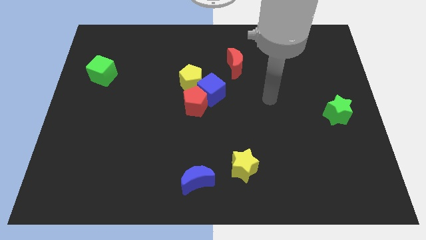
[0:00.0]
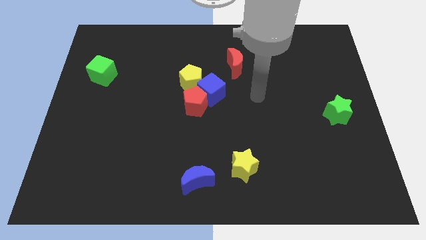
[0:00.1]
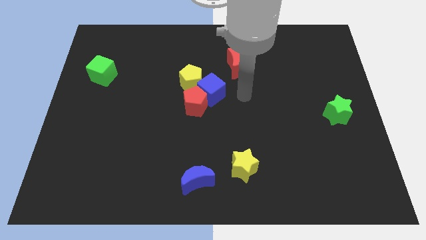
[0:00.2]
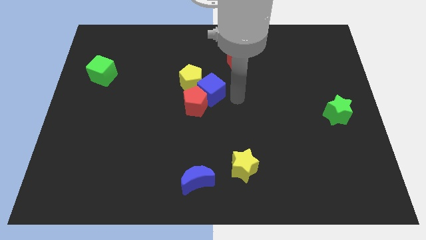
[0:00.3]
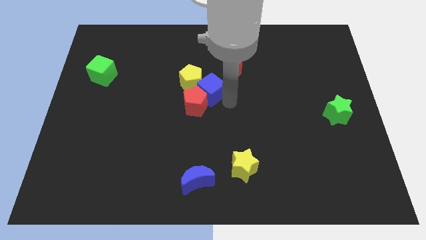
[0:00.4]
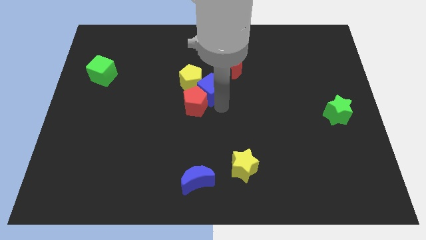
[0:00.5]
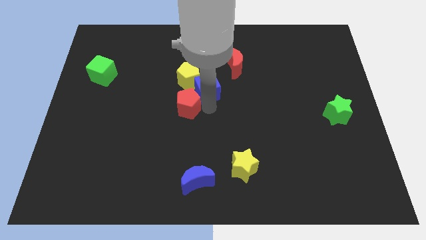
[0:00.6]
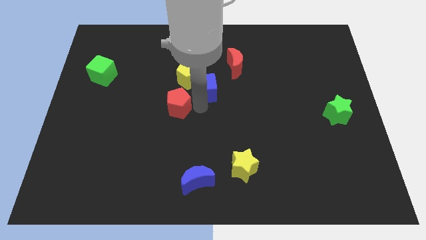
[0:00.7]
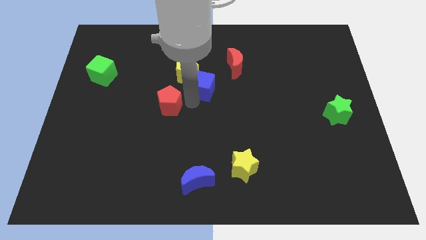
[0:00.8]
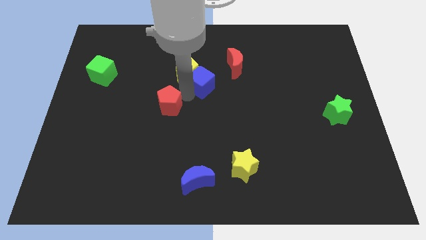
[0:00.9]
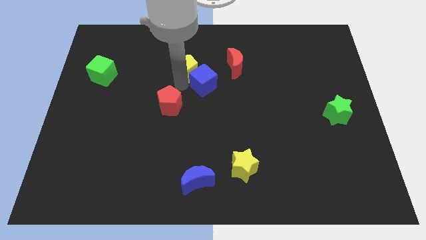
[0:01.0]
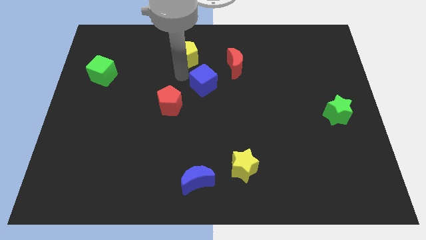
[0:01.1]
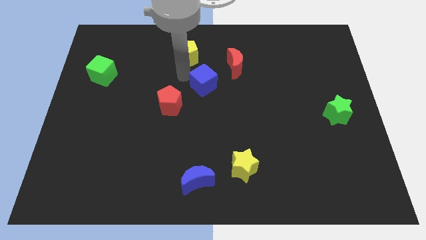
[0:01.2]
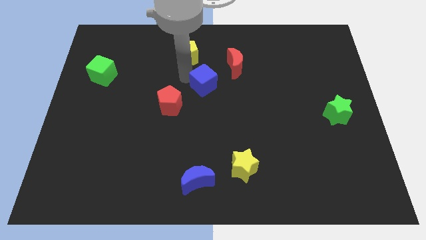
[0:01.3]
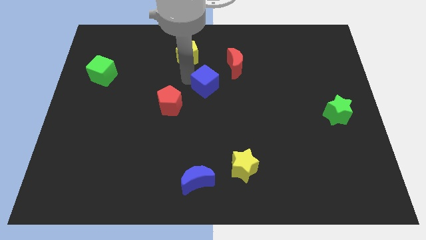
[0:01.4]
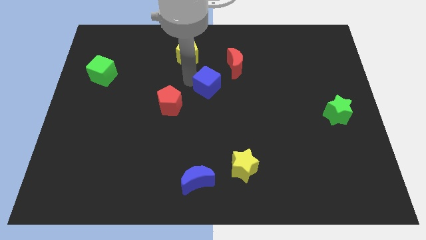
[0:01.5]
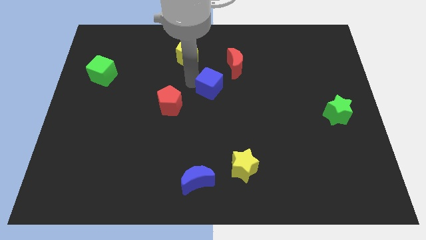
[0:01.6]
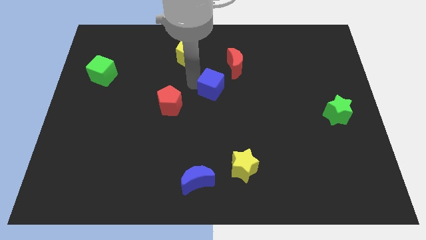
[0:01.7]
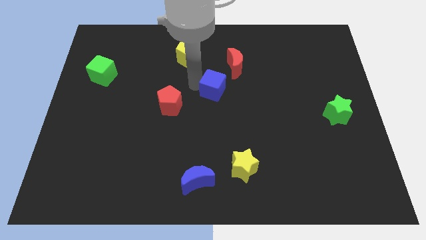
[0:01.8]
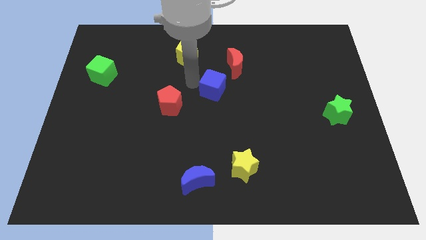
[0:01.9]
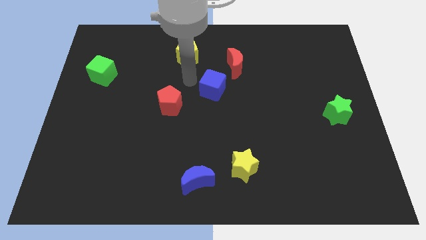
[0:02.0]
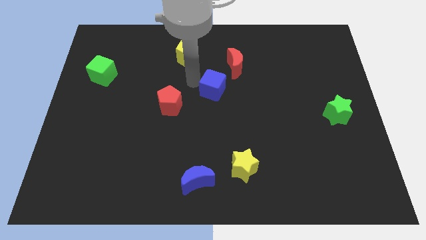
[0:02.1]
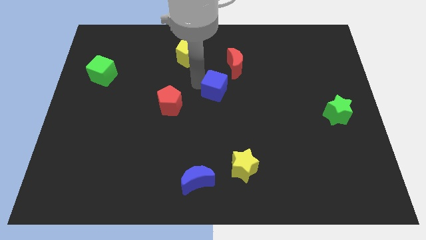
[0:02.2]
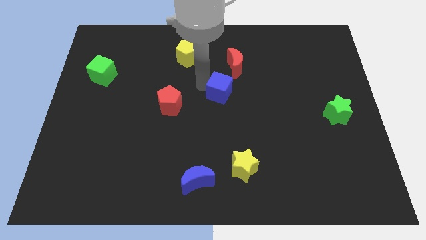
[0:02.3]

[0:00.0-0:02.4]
separate the blue cube from the red pentagon and yellow pentagon

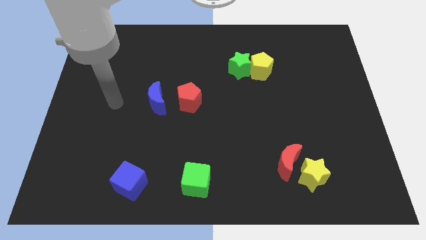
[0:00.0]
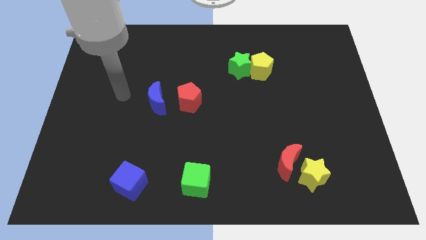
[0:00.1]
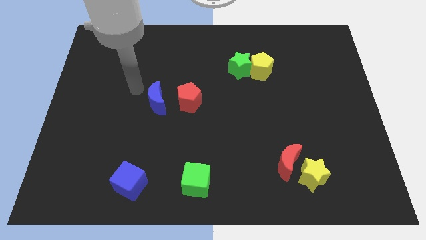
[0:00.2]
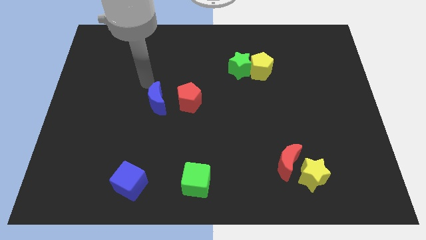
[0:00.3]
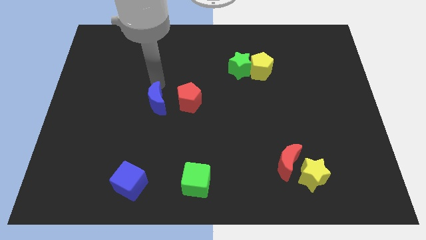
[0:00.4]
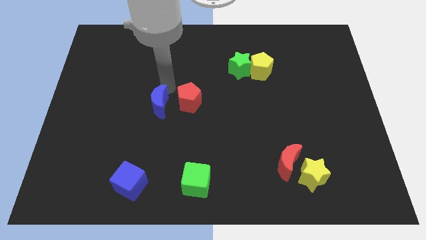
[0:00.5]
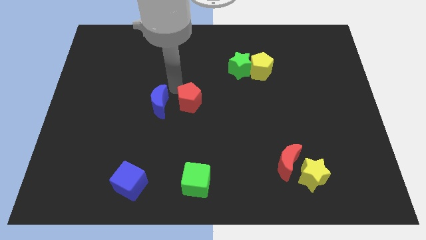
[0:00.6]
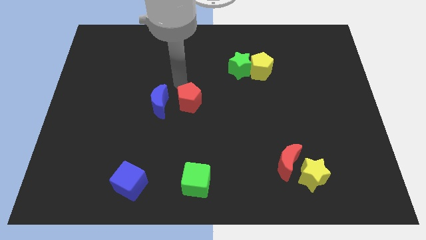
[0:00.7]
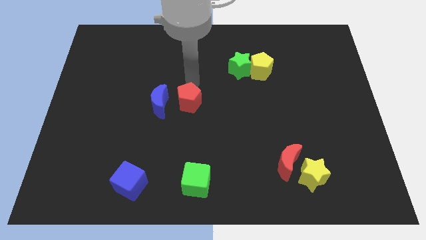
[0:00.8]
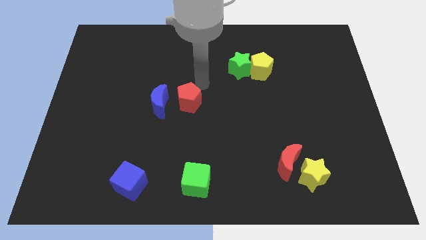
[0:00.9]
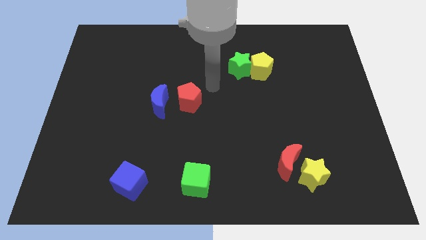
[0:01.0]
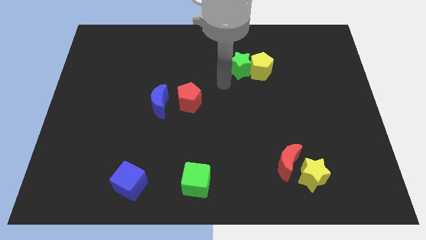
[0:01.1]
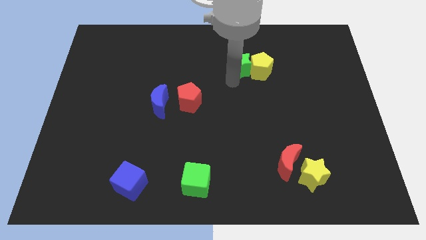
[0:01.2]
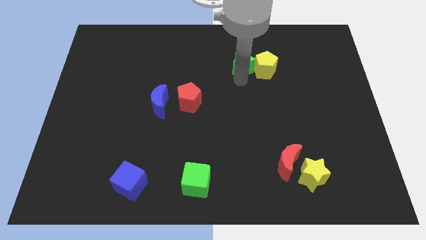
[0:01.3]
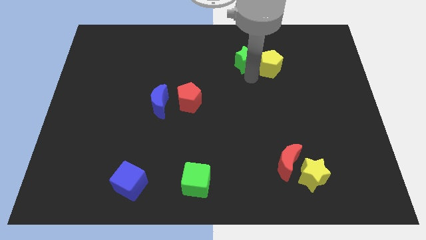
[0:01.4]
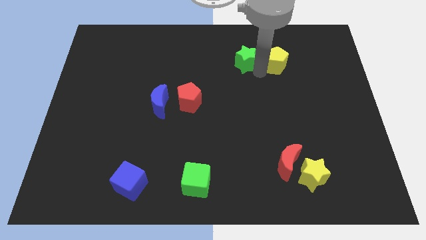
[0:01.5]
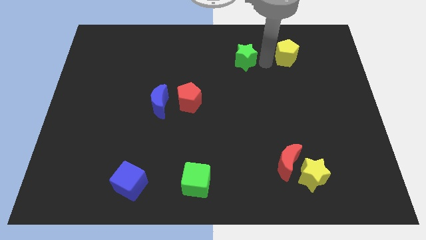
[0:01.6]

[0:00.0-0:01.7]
move the green star away from the yellow pentagon

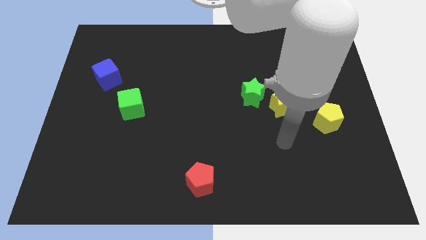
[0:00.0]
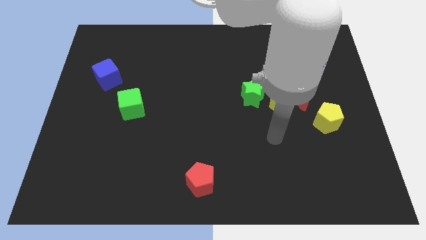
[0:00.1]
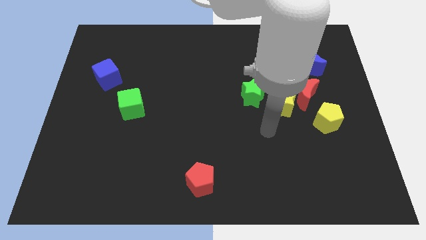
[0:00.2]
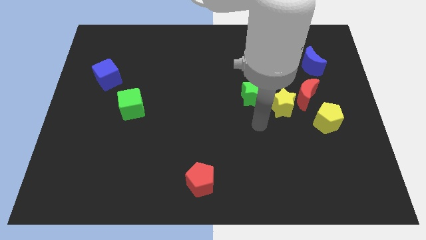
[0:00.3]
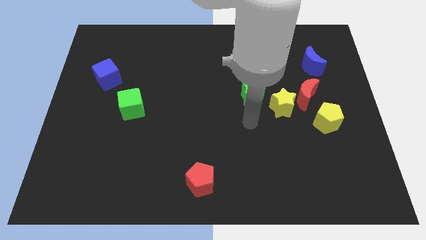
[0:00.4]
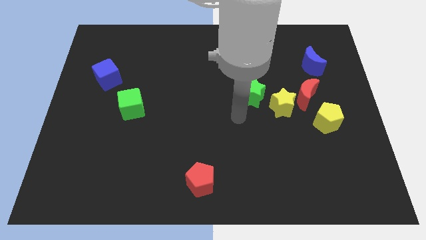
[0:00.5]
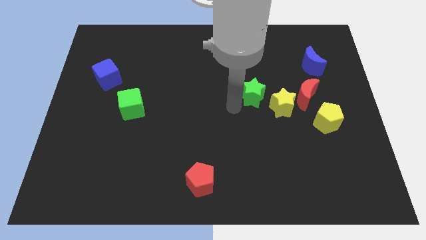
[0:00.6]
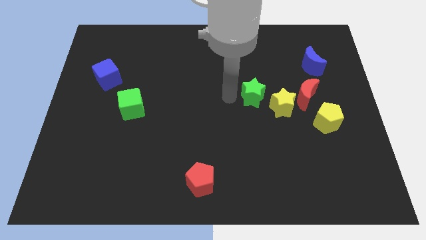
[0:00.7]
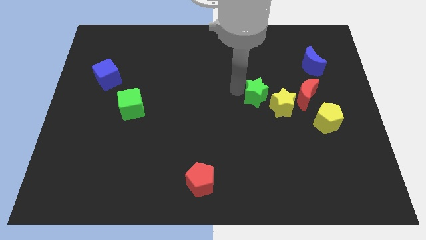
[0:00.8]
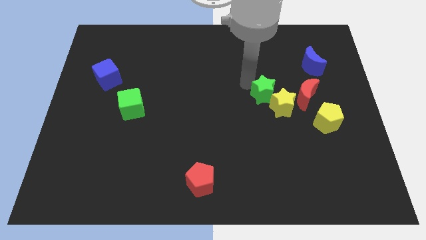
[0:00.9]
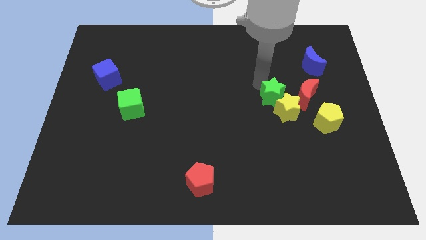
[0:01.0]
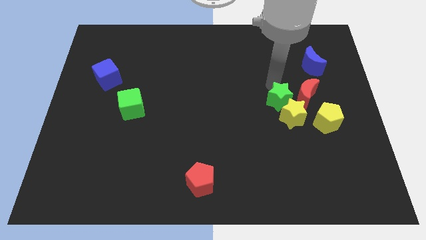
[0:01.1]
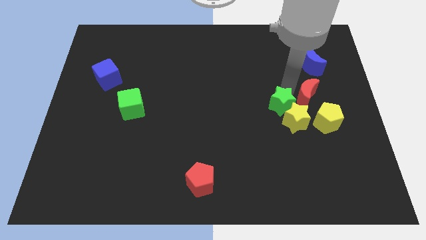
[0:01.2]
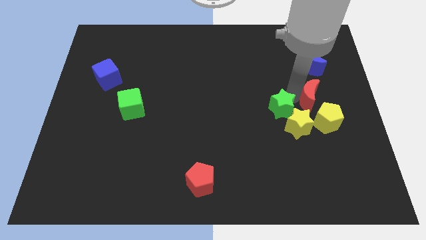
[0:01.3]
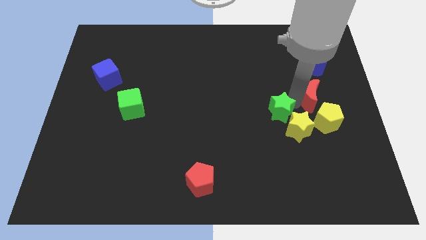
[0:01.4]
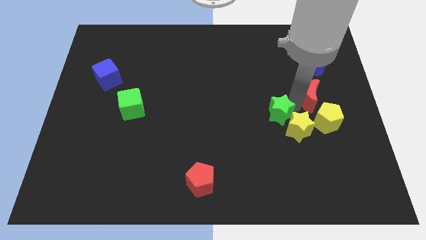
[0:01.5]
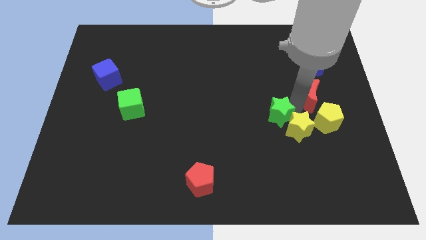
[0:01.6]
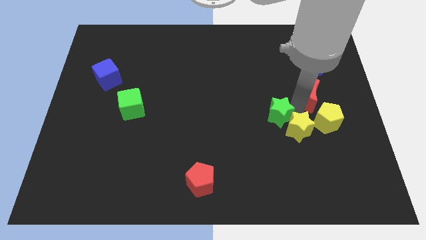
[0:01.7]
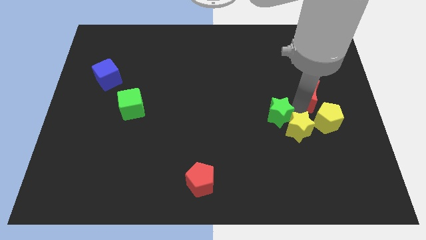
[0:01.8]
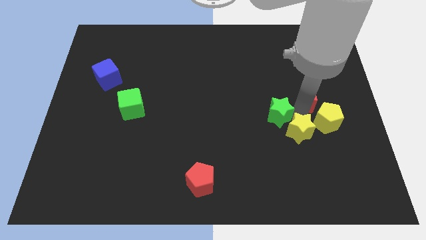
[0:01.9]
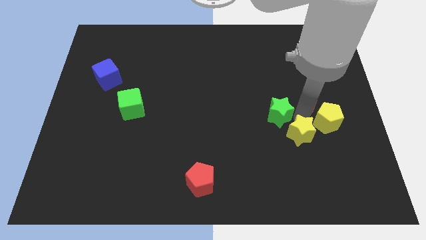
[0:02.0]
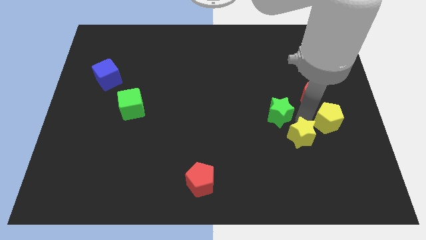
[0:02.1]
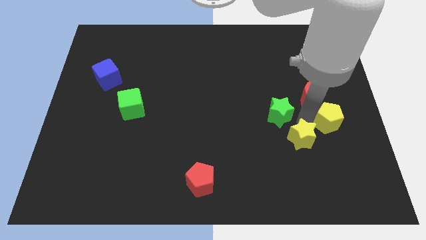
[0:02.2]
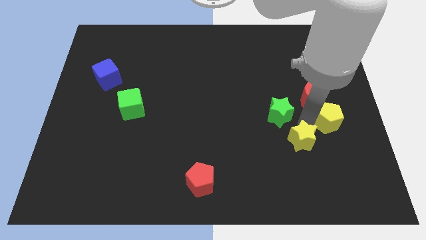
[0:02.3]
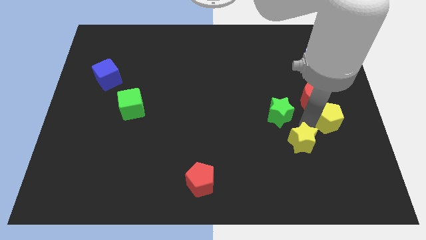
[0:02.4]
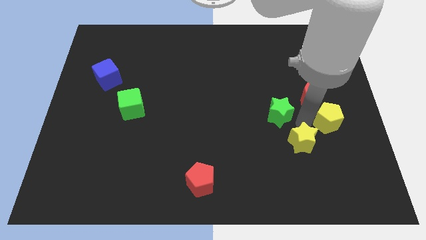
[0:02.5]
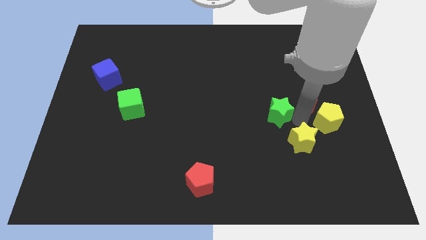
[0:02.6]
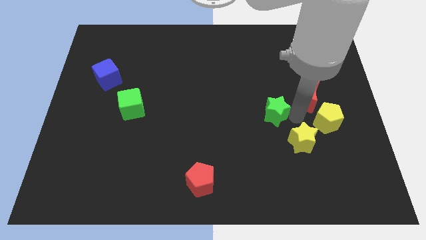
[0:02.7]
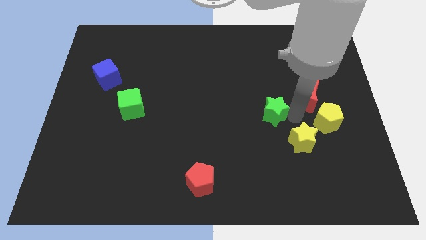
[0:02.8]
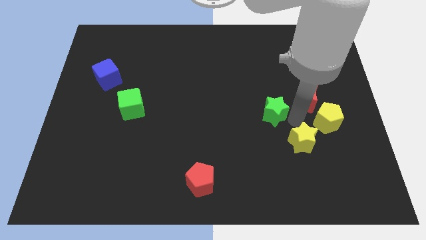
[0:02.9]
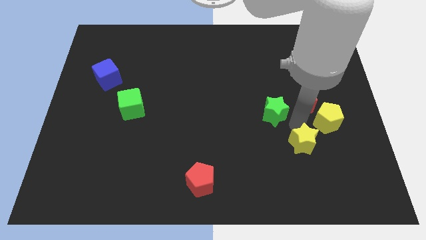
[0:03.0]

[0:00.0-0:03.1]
pull the yellow star apart from the red moon and green star

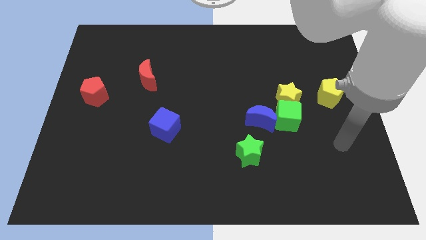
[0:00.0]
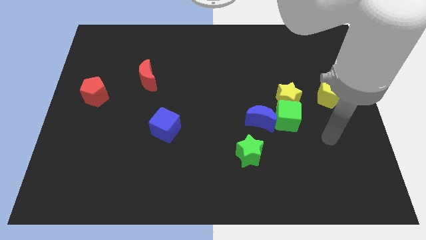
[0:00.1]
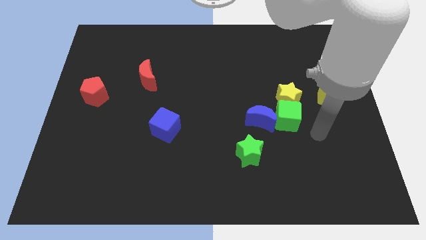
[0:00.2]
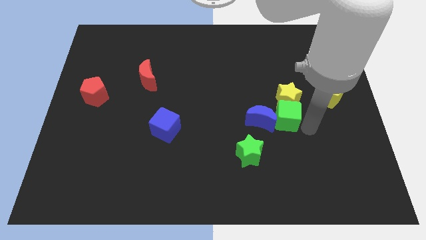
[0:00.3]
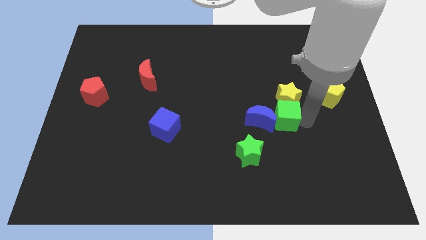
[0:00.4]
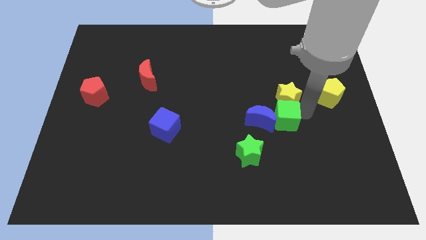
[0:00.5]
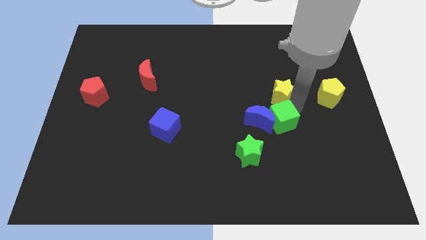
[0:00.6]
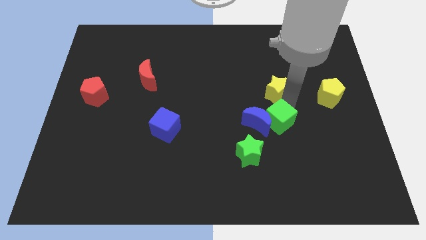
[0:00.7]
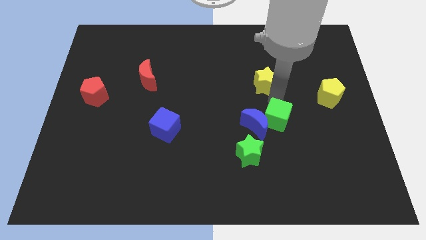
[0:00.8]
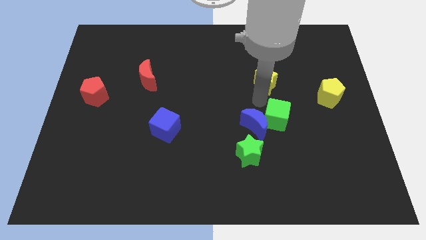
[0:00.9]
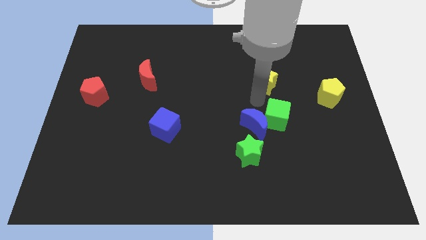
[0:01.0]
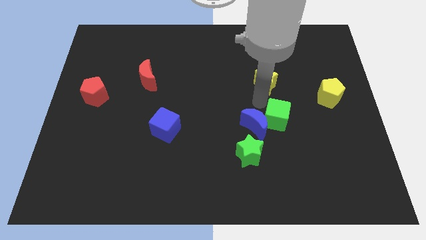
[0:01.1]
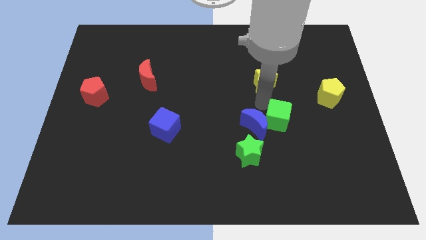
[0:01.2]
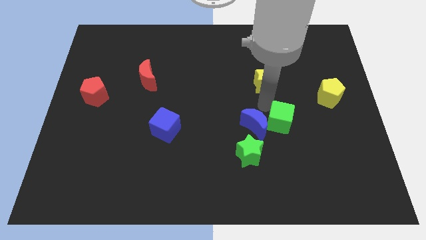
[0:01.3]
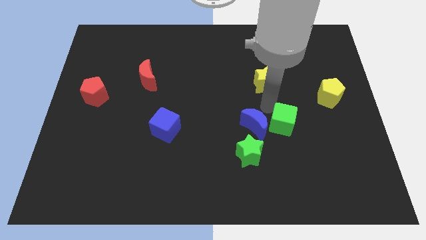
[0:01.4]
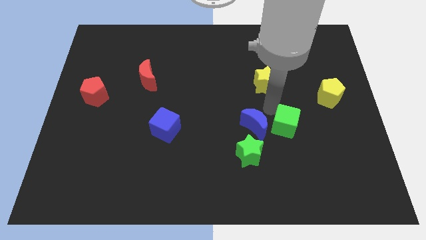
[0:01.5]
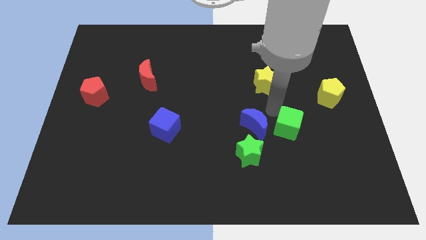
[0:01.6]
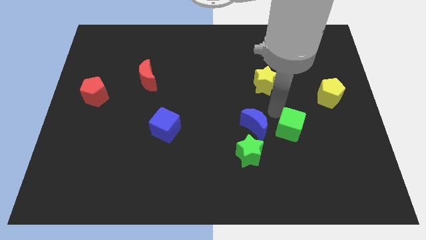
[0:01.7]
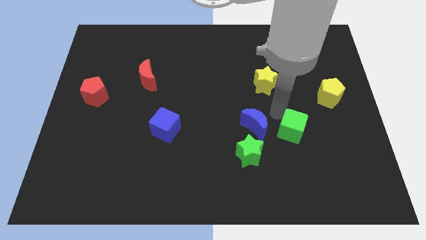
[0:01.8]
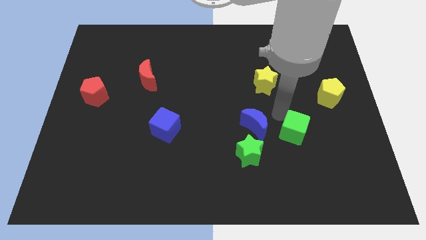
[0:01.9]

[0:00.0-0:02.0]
separate the green cube from the yellow star and blue moon

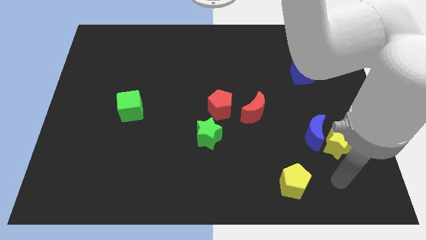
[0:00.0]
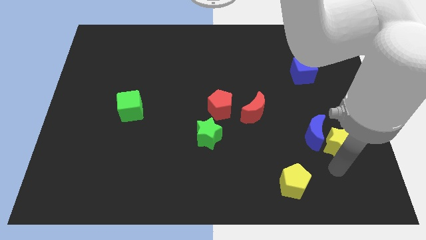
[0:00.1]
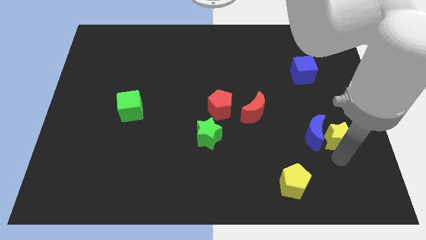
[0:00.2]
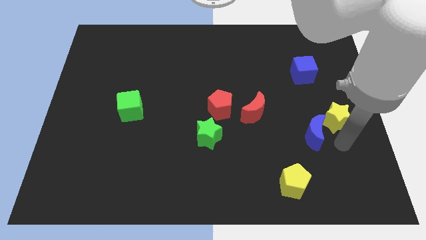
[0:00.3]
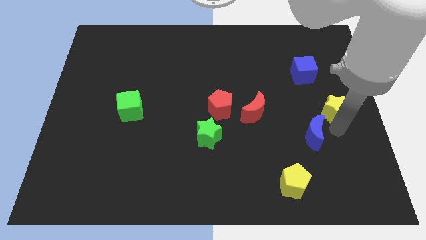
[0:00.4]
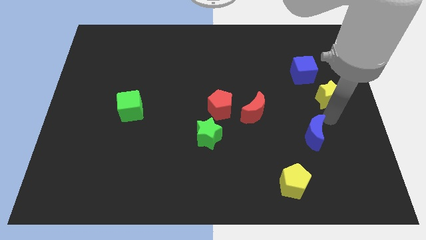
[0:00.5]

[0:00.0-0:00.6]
pull the blue moon apart from the yellow star
